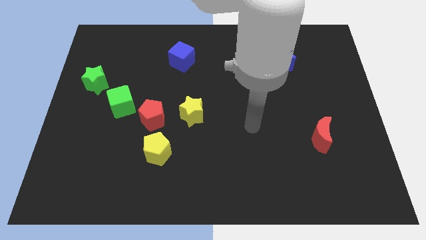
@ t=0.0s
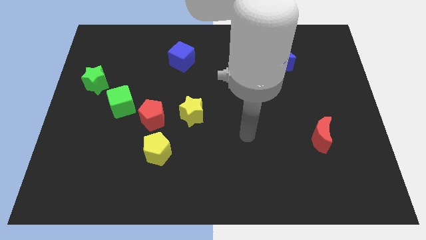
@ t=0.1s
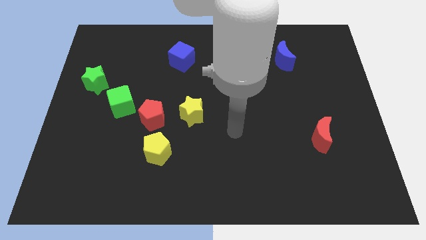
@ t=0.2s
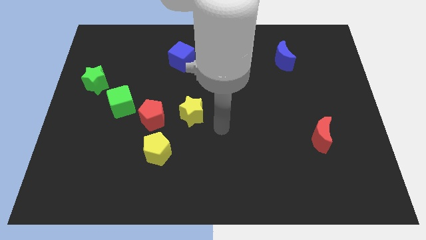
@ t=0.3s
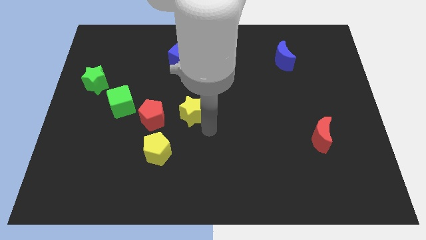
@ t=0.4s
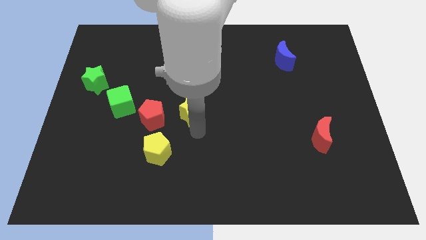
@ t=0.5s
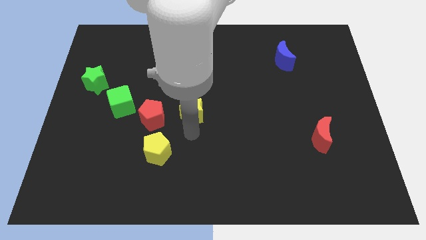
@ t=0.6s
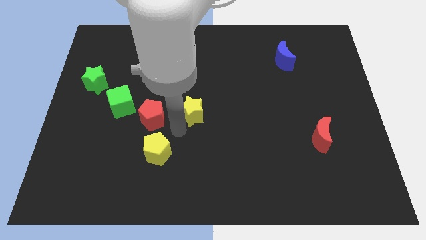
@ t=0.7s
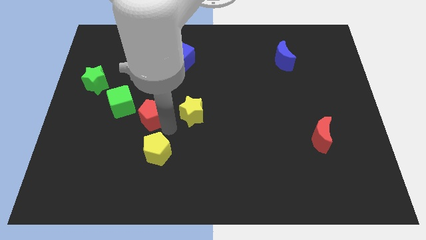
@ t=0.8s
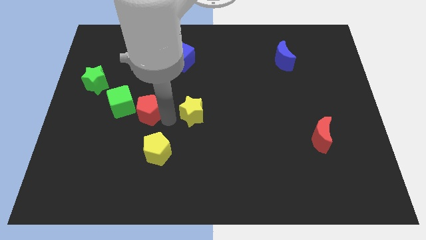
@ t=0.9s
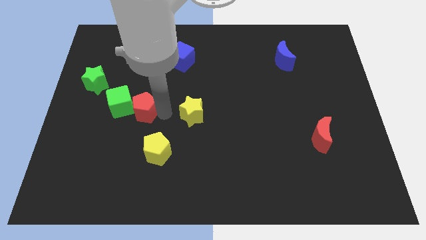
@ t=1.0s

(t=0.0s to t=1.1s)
separate the yellow star from the red pentagon

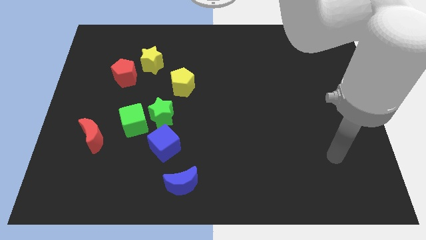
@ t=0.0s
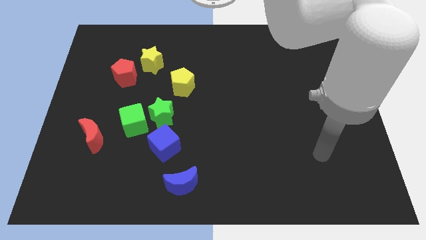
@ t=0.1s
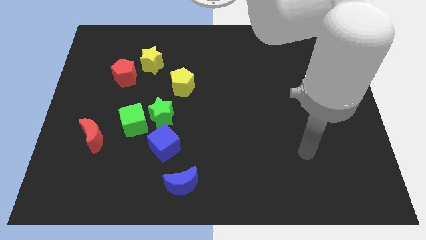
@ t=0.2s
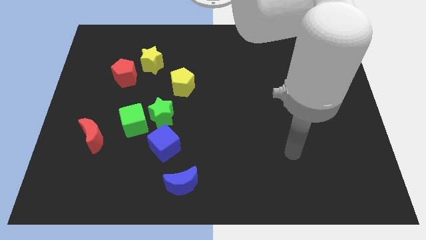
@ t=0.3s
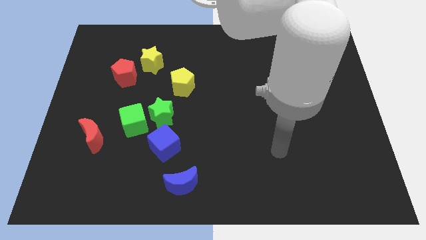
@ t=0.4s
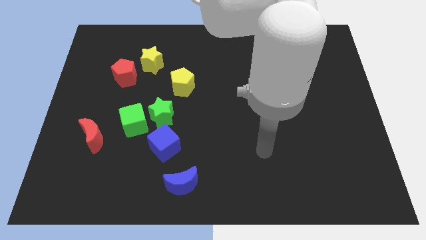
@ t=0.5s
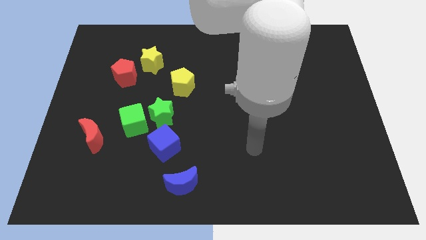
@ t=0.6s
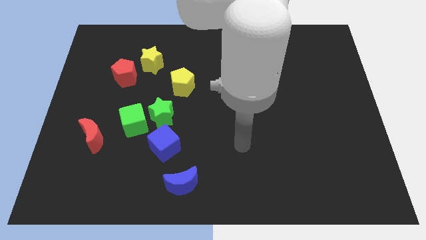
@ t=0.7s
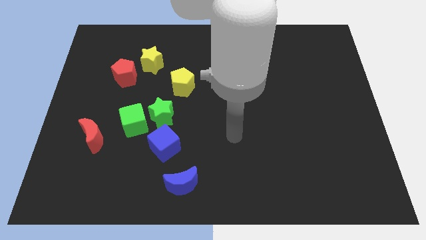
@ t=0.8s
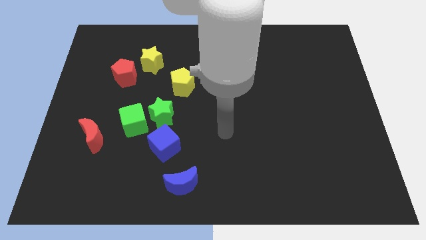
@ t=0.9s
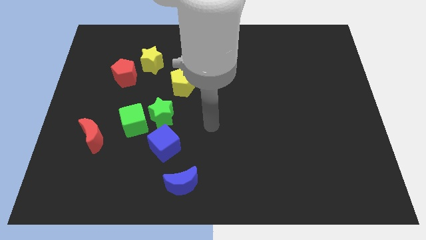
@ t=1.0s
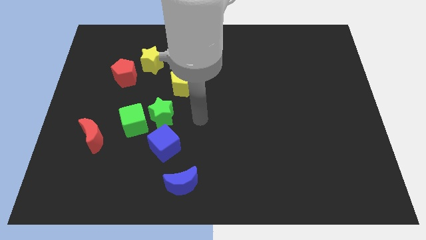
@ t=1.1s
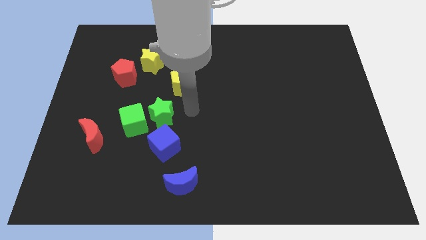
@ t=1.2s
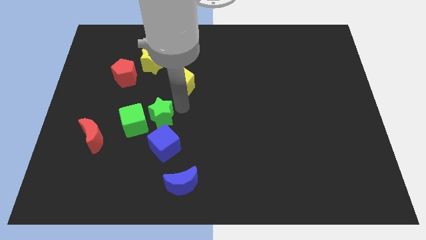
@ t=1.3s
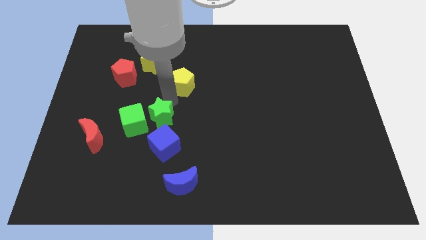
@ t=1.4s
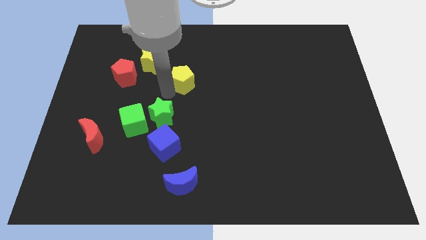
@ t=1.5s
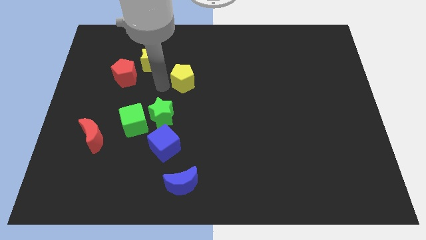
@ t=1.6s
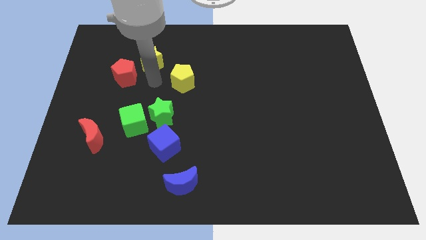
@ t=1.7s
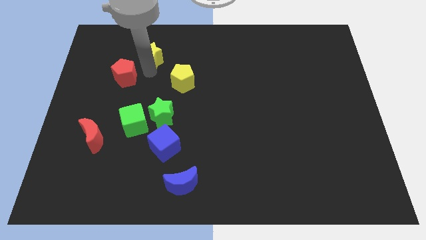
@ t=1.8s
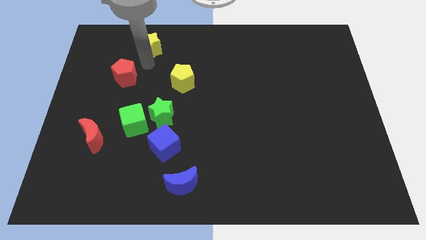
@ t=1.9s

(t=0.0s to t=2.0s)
pull the red pentagon apart from the yellow star

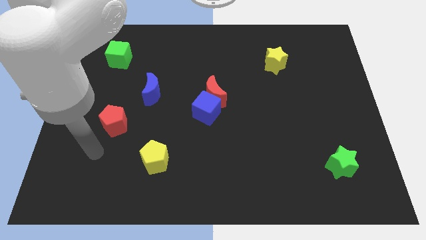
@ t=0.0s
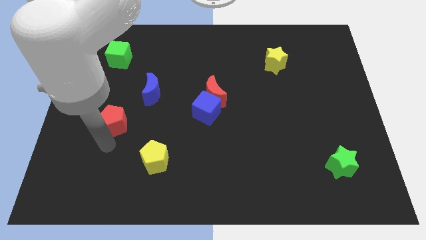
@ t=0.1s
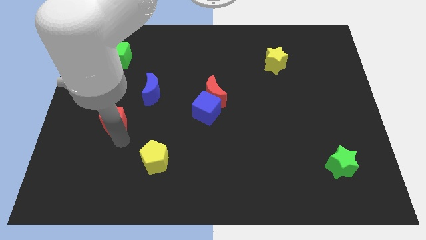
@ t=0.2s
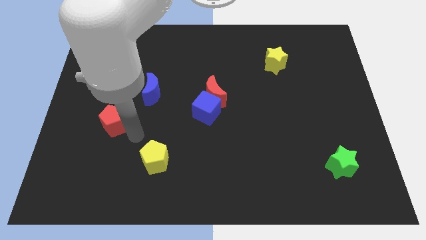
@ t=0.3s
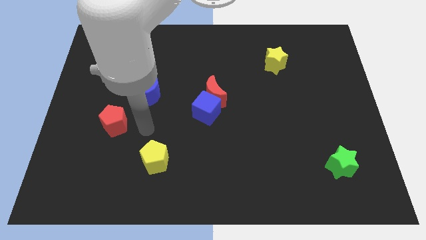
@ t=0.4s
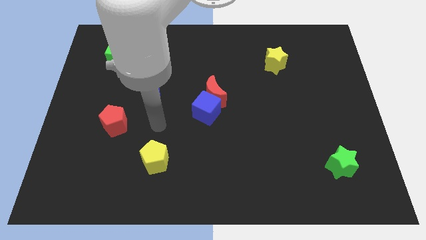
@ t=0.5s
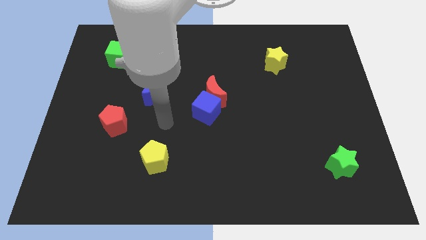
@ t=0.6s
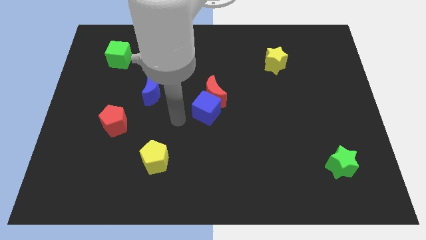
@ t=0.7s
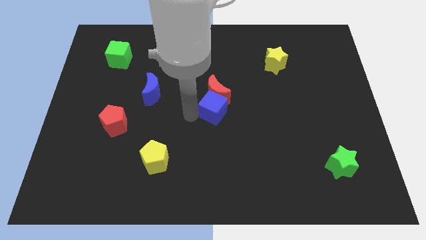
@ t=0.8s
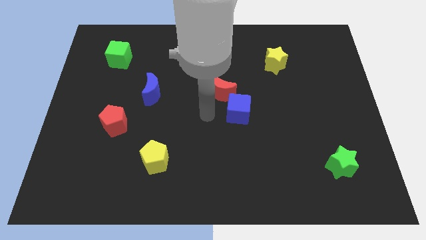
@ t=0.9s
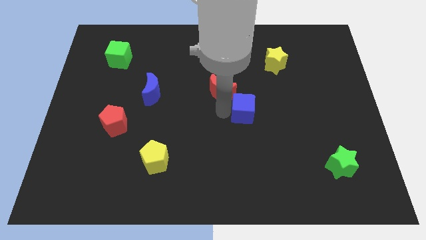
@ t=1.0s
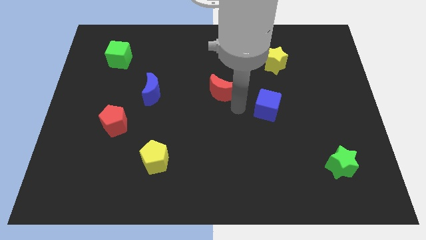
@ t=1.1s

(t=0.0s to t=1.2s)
move the red moon away from the blue cube

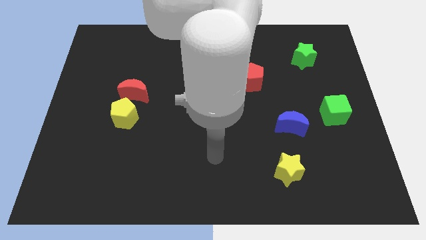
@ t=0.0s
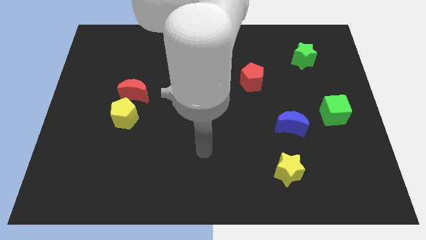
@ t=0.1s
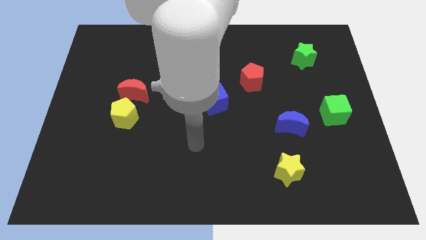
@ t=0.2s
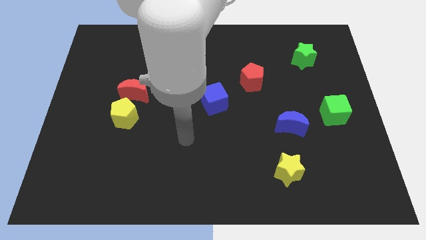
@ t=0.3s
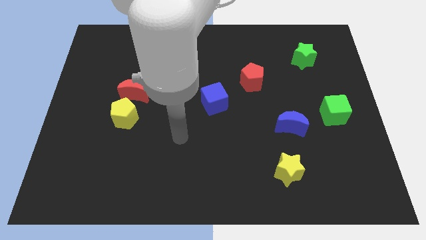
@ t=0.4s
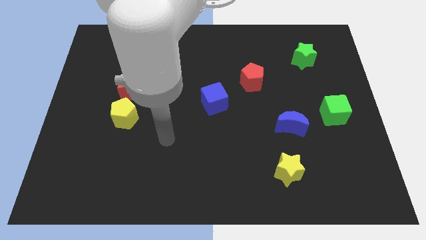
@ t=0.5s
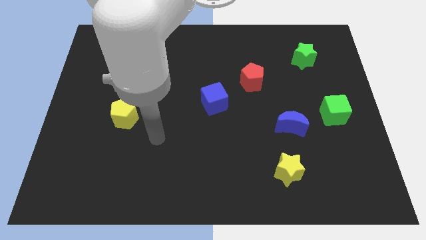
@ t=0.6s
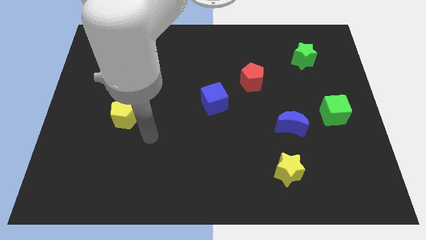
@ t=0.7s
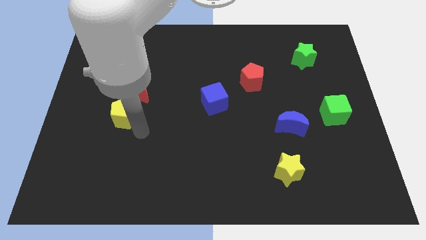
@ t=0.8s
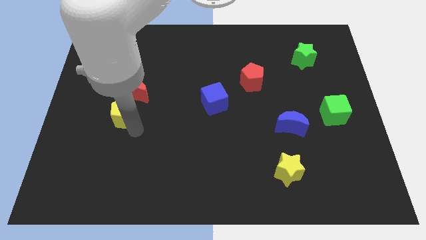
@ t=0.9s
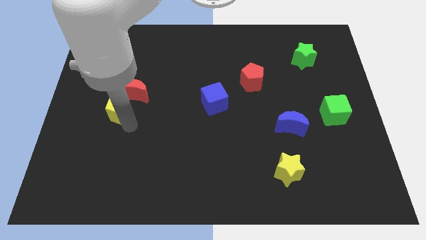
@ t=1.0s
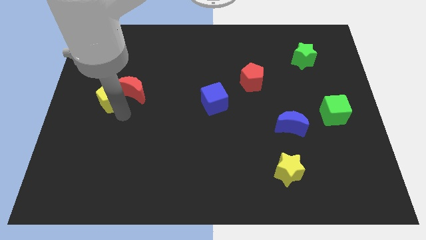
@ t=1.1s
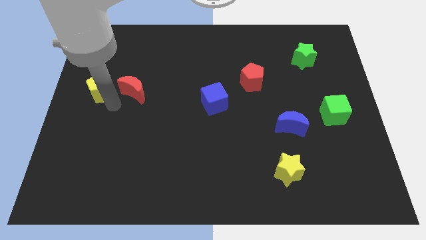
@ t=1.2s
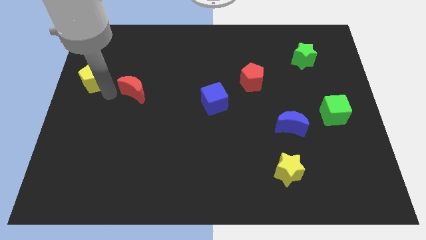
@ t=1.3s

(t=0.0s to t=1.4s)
pull the red moon apart from the yellow pentagon

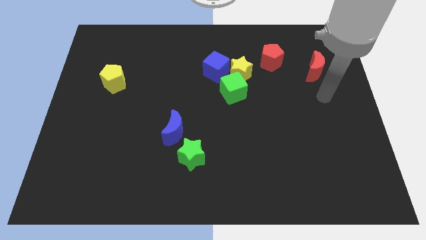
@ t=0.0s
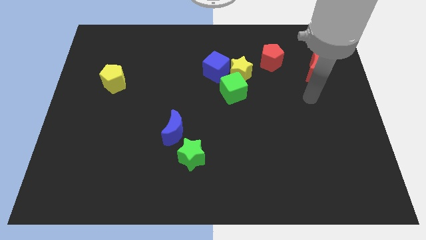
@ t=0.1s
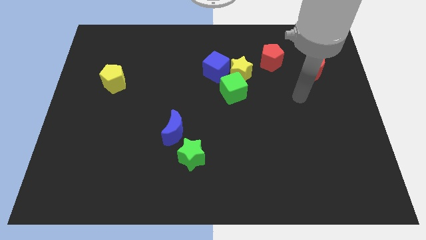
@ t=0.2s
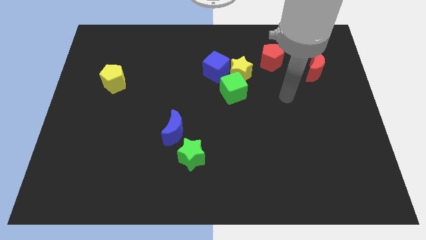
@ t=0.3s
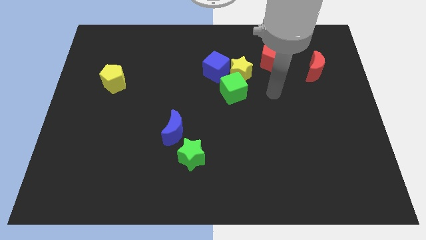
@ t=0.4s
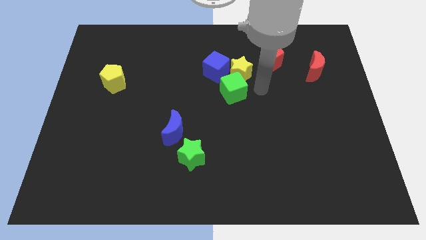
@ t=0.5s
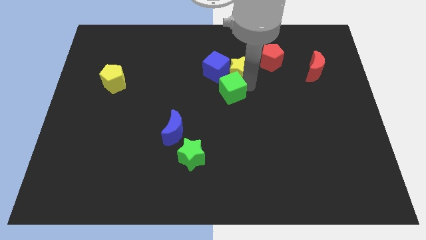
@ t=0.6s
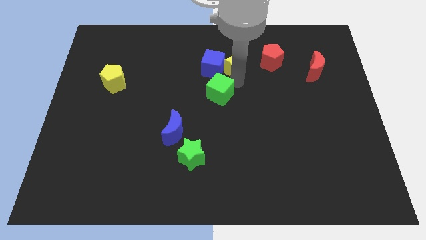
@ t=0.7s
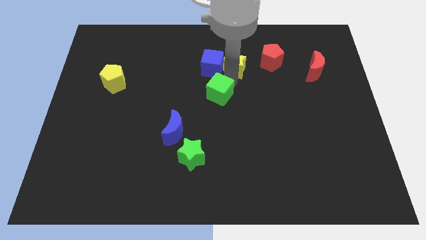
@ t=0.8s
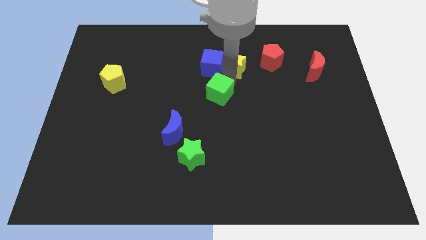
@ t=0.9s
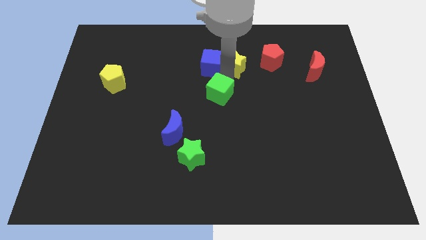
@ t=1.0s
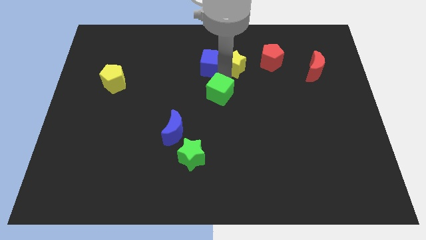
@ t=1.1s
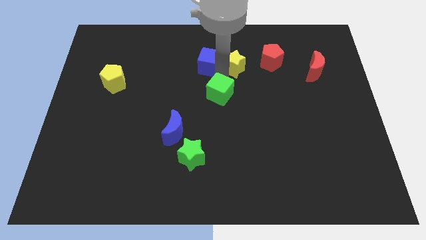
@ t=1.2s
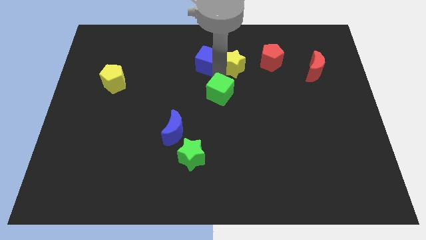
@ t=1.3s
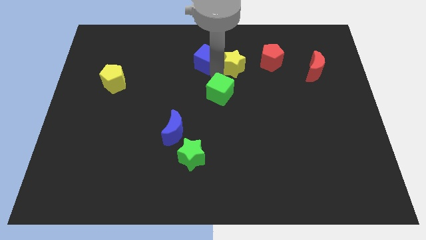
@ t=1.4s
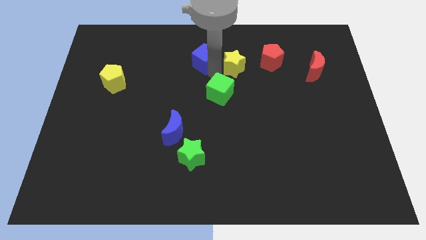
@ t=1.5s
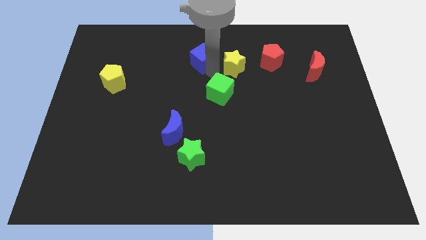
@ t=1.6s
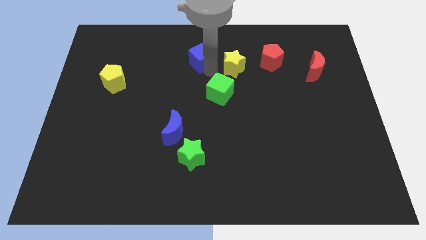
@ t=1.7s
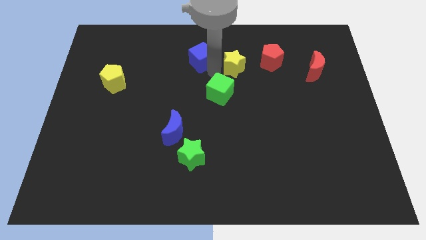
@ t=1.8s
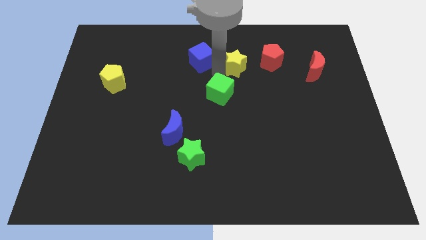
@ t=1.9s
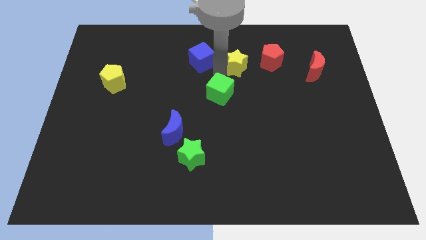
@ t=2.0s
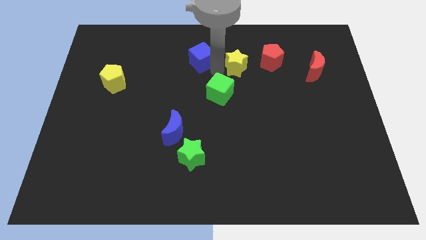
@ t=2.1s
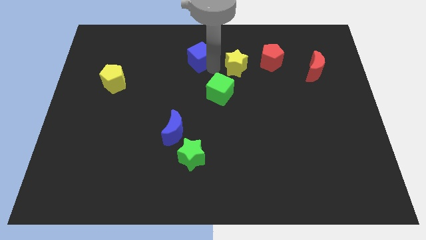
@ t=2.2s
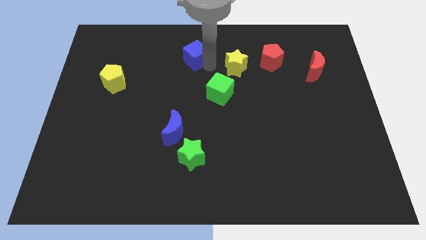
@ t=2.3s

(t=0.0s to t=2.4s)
move the blue cube away from the yellow star and green cube

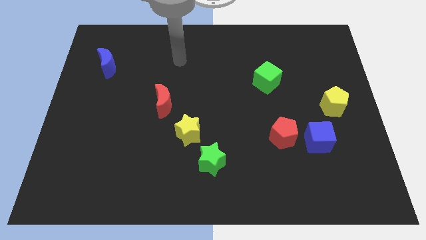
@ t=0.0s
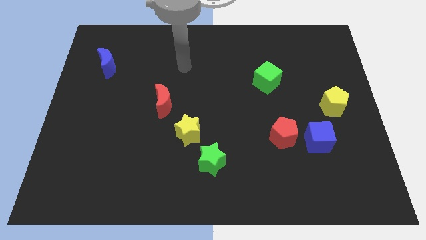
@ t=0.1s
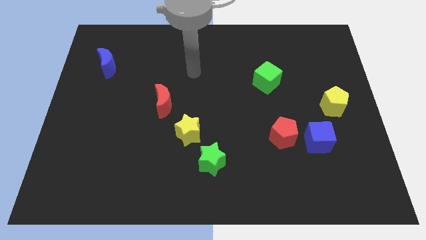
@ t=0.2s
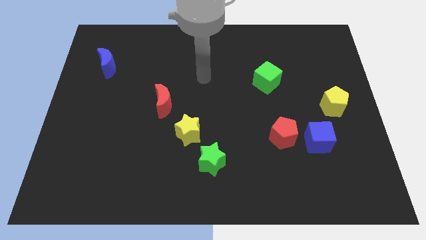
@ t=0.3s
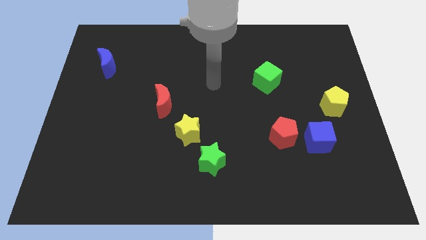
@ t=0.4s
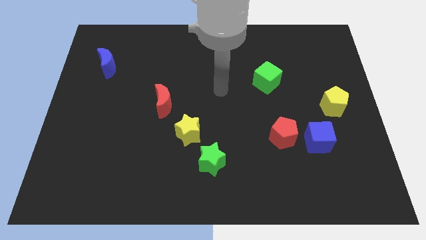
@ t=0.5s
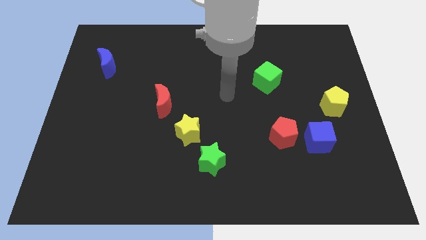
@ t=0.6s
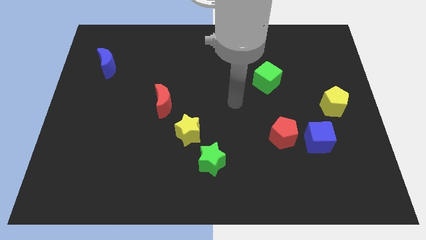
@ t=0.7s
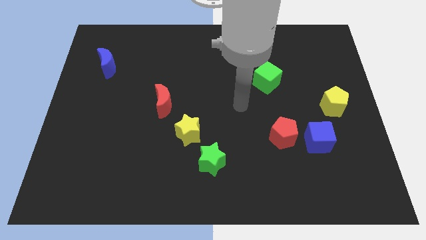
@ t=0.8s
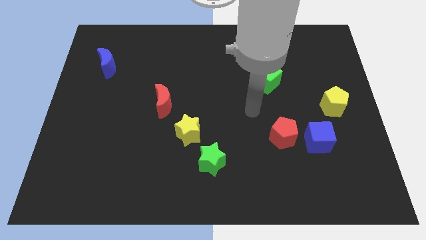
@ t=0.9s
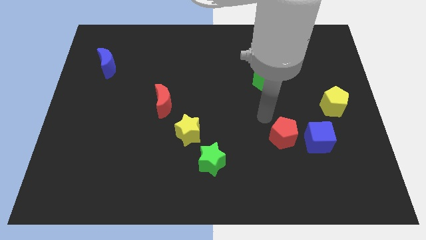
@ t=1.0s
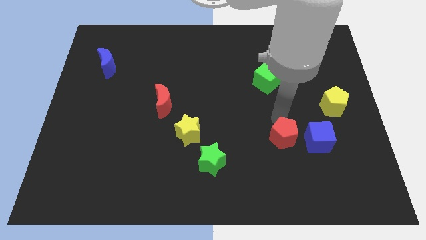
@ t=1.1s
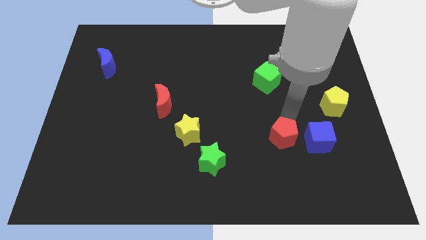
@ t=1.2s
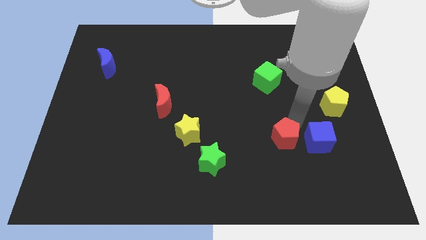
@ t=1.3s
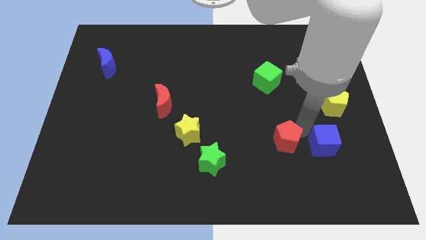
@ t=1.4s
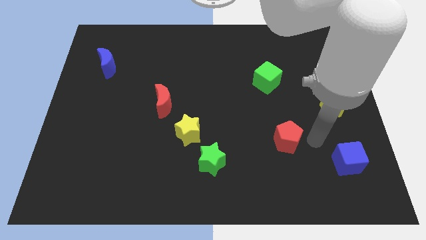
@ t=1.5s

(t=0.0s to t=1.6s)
separate the red pentagon from the blue cube
